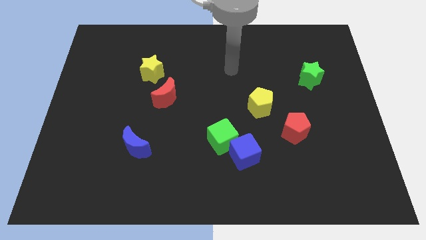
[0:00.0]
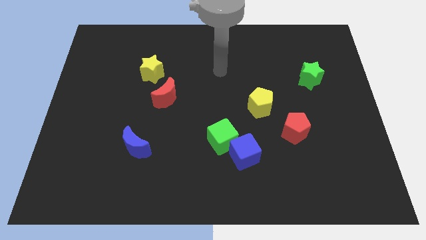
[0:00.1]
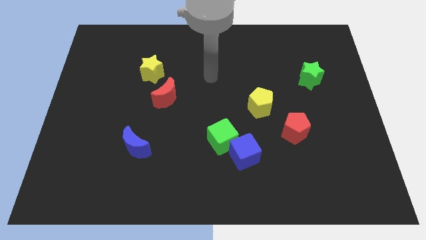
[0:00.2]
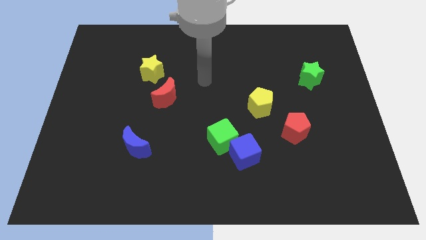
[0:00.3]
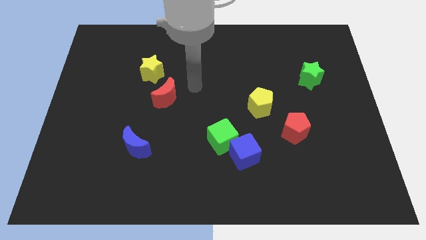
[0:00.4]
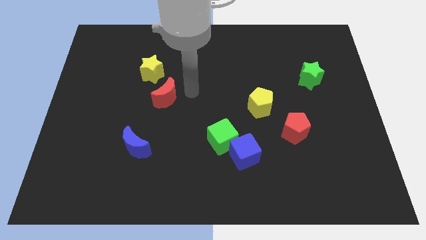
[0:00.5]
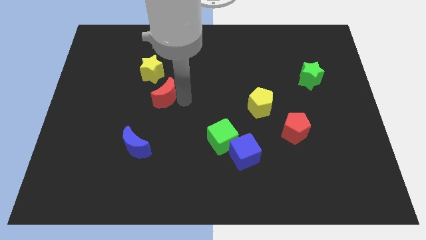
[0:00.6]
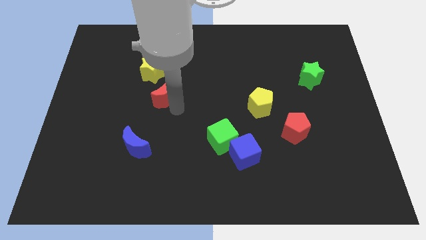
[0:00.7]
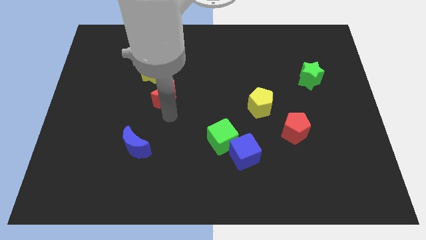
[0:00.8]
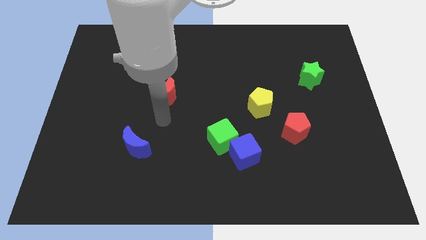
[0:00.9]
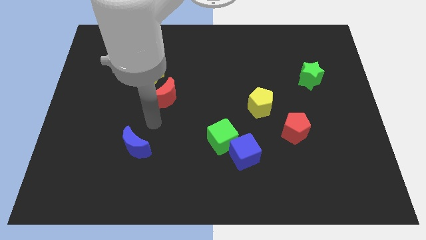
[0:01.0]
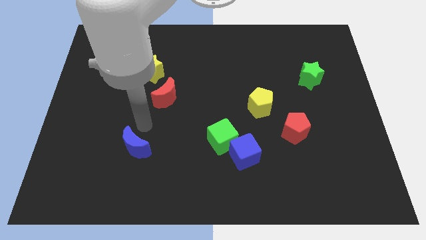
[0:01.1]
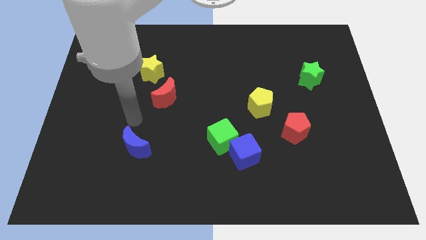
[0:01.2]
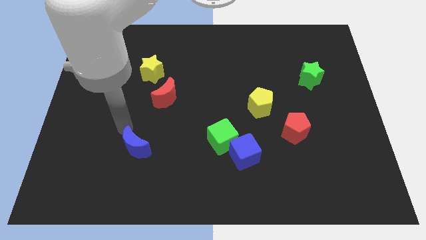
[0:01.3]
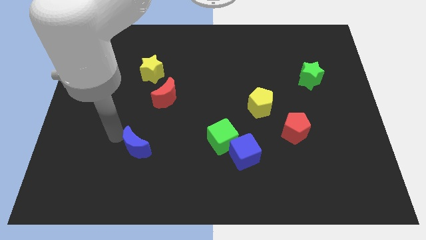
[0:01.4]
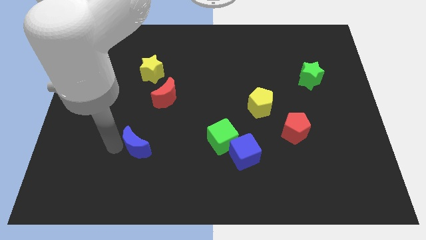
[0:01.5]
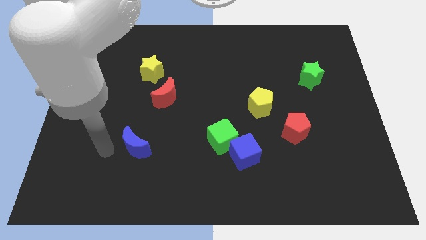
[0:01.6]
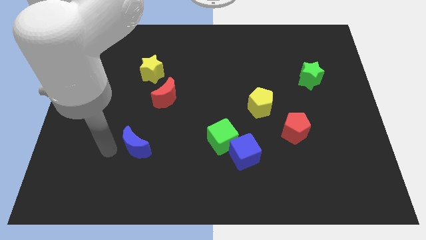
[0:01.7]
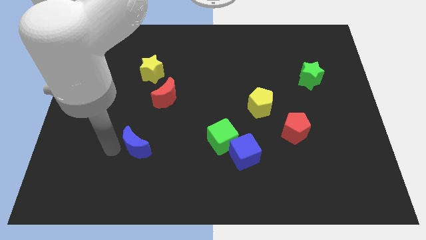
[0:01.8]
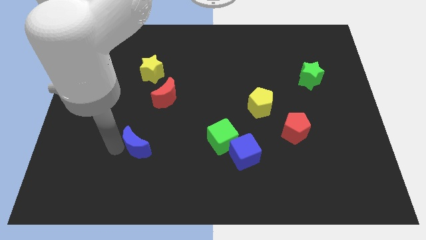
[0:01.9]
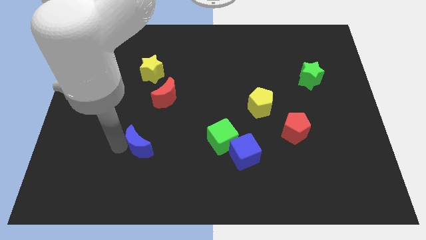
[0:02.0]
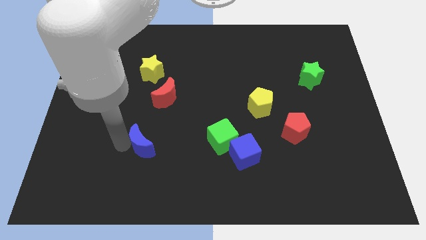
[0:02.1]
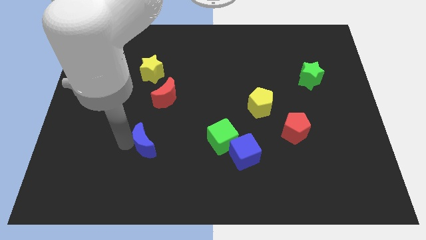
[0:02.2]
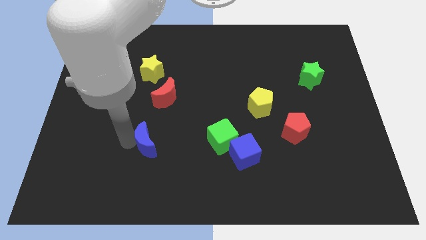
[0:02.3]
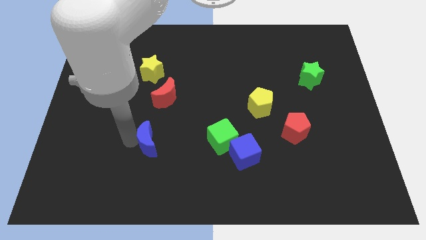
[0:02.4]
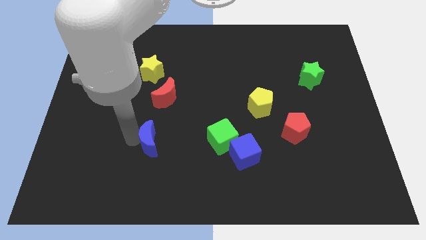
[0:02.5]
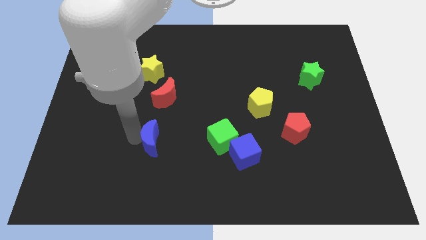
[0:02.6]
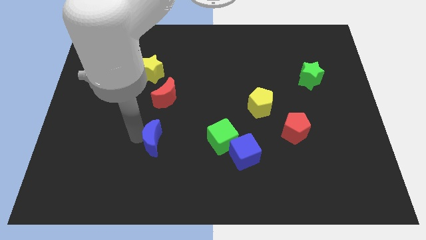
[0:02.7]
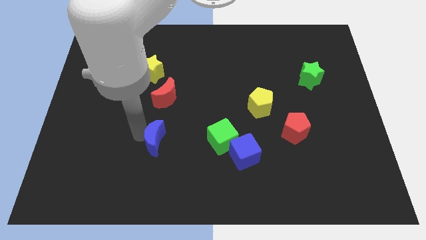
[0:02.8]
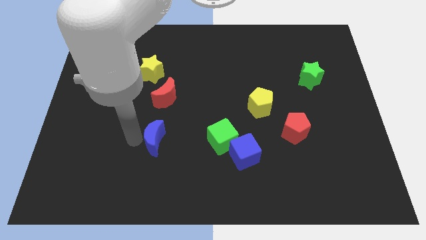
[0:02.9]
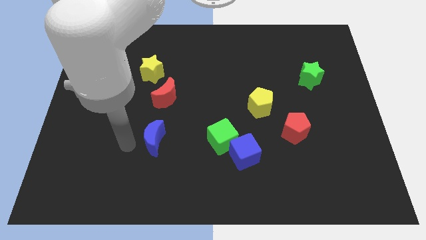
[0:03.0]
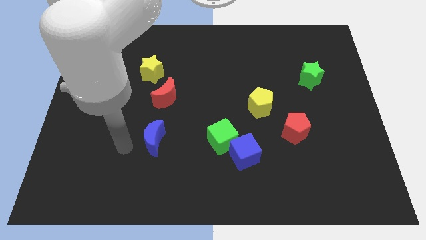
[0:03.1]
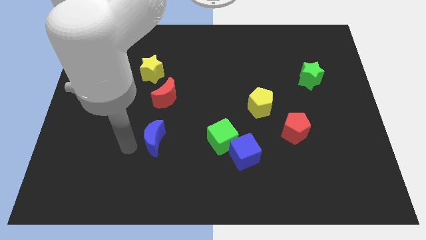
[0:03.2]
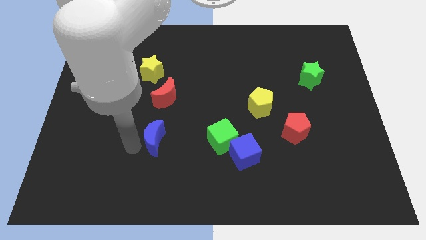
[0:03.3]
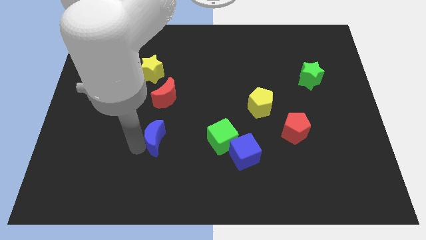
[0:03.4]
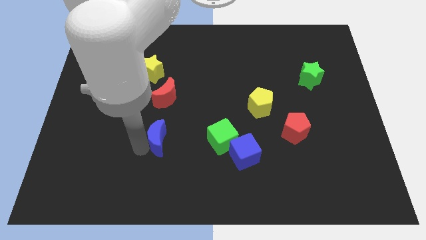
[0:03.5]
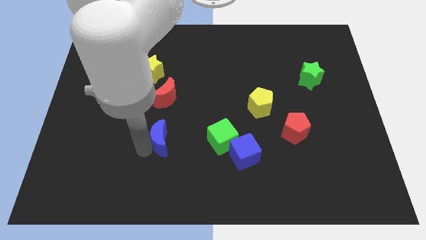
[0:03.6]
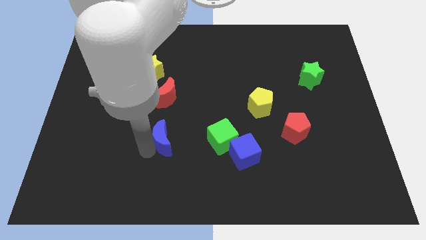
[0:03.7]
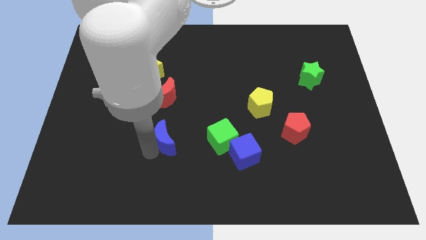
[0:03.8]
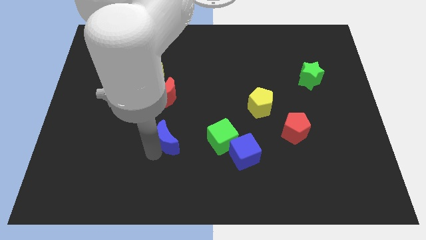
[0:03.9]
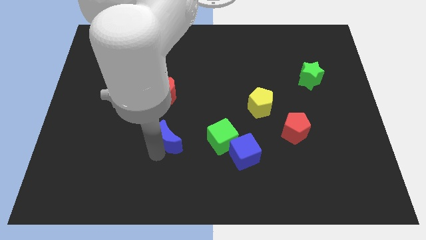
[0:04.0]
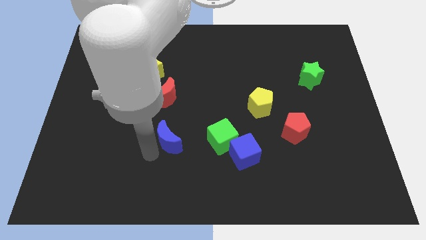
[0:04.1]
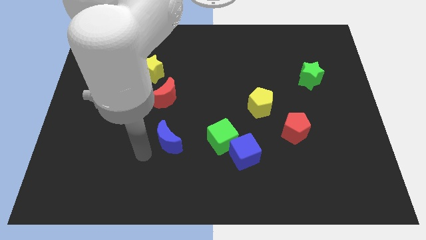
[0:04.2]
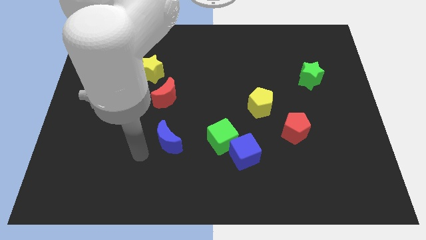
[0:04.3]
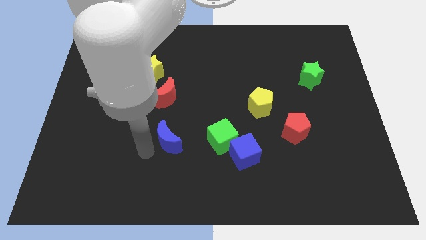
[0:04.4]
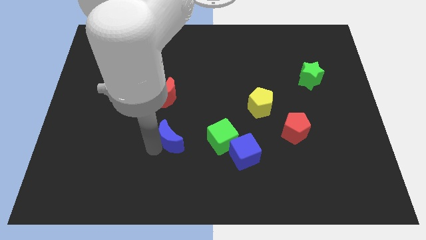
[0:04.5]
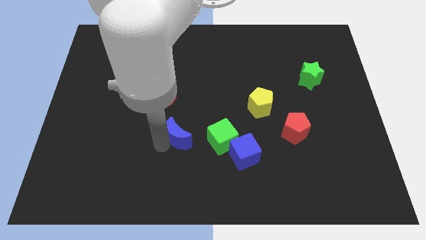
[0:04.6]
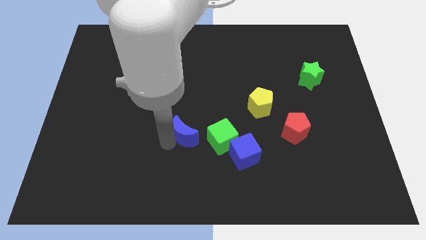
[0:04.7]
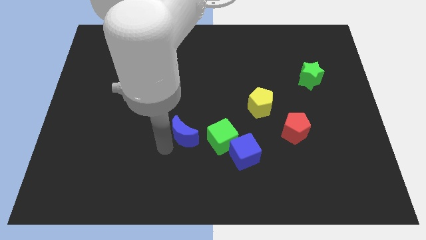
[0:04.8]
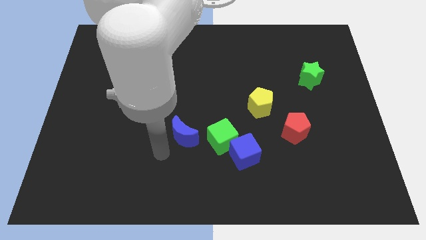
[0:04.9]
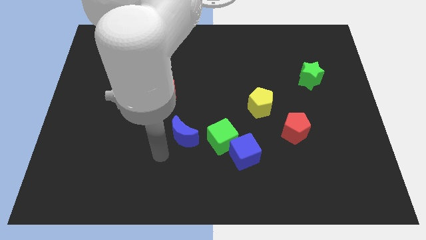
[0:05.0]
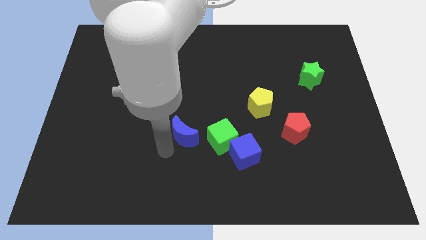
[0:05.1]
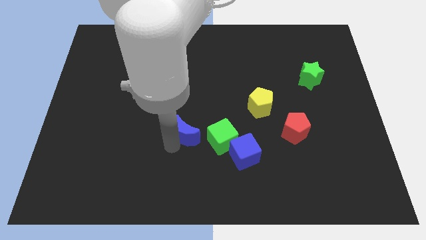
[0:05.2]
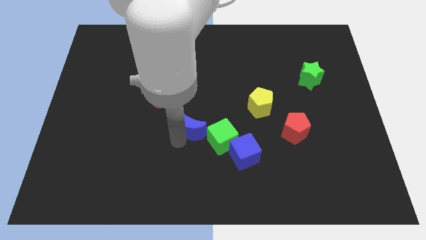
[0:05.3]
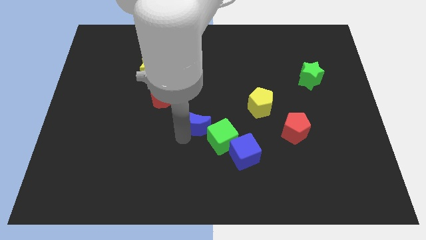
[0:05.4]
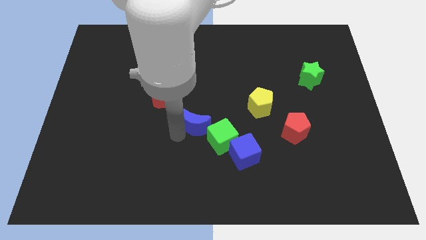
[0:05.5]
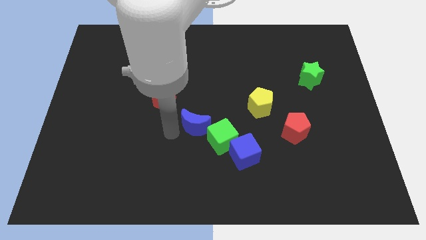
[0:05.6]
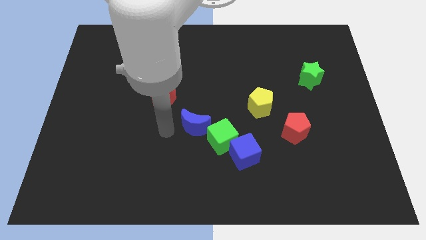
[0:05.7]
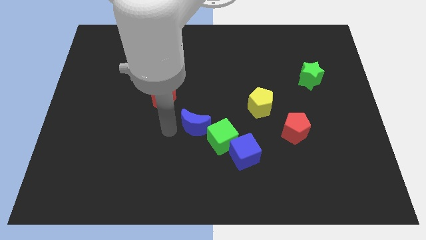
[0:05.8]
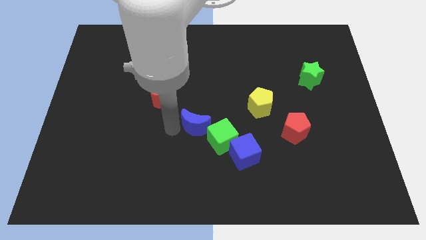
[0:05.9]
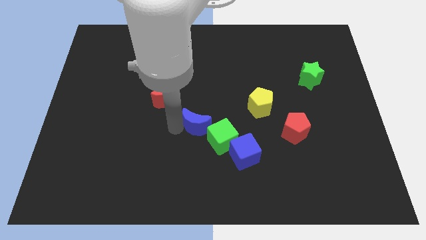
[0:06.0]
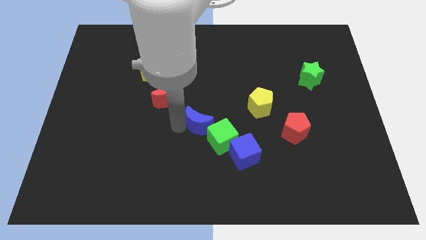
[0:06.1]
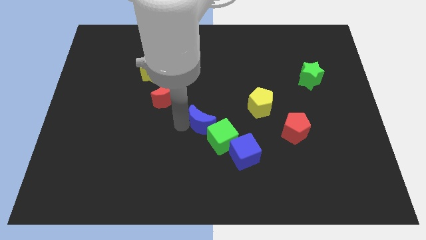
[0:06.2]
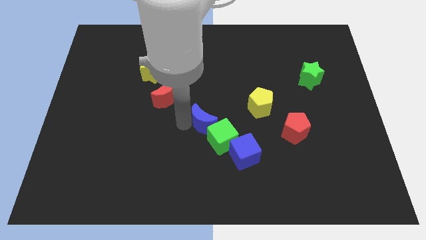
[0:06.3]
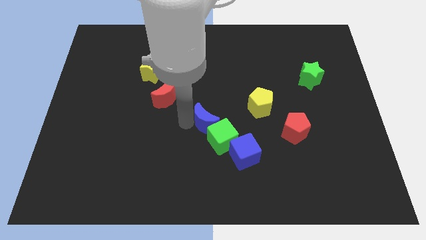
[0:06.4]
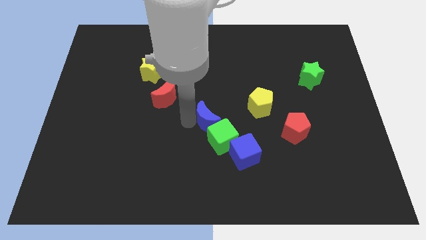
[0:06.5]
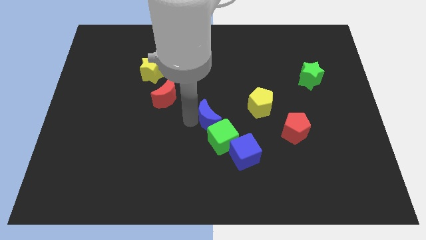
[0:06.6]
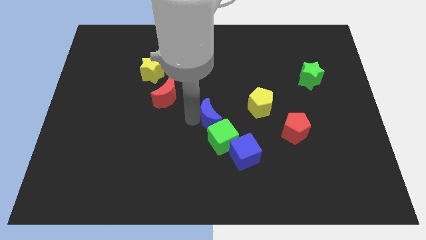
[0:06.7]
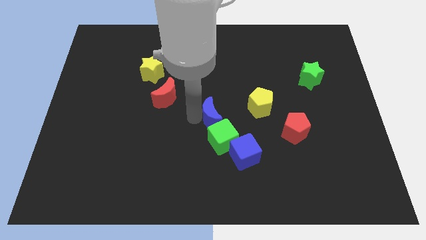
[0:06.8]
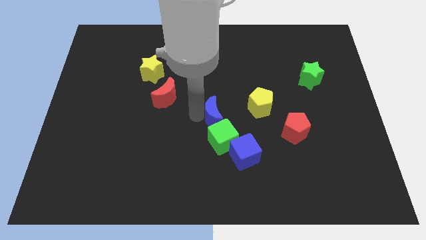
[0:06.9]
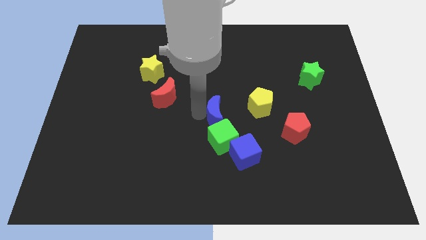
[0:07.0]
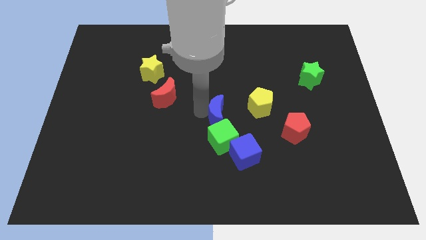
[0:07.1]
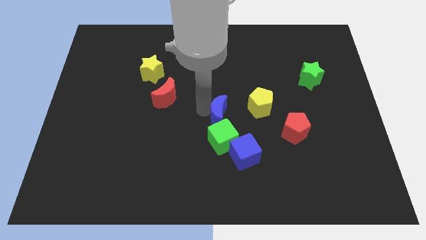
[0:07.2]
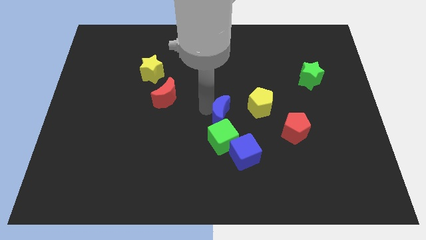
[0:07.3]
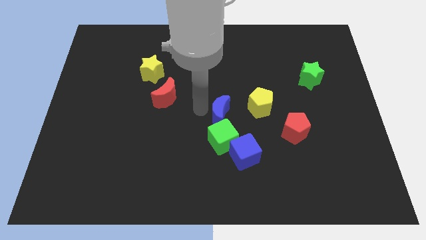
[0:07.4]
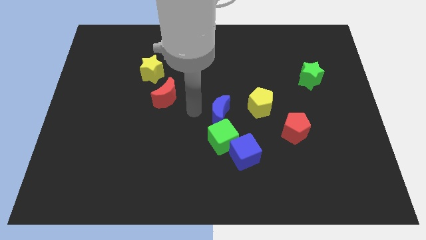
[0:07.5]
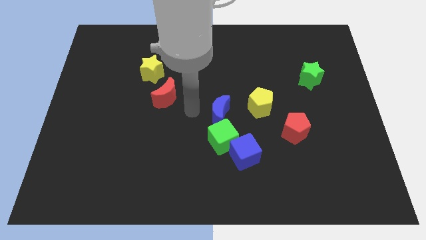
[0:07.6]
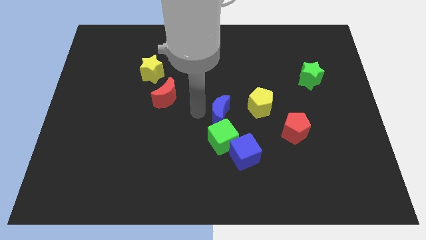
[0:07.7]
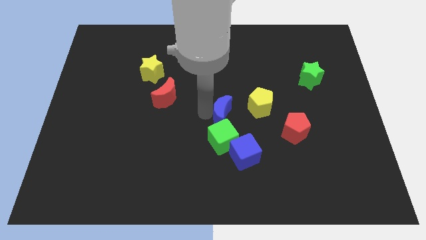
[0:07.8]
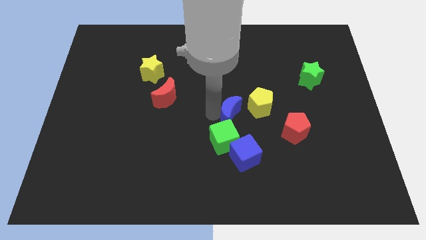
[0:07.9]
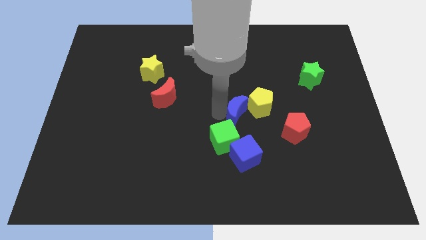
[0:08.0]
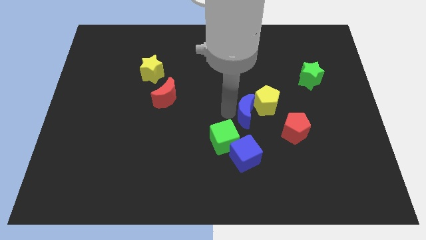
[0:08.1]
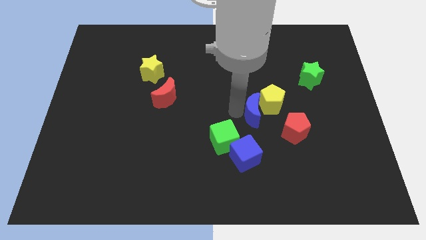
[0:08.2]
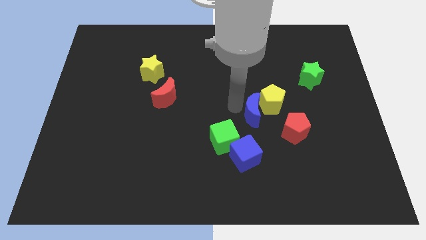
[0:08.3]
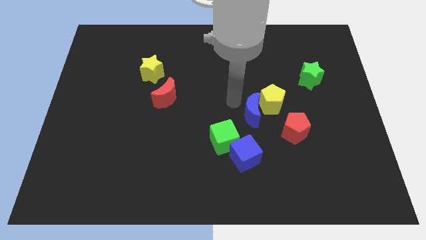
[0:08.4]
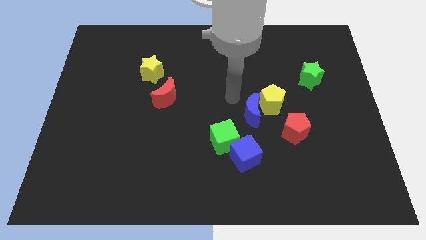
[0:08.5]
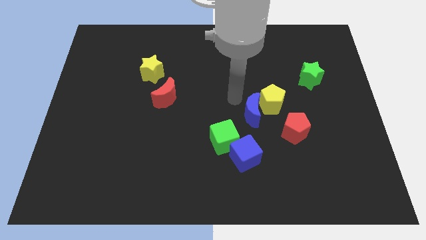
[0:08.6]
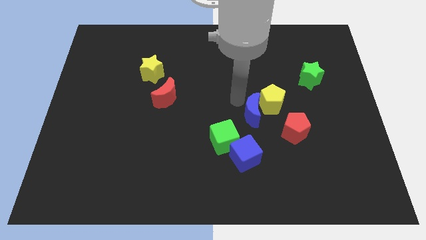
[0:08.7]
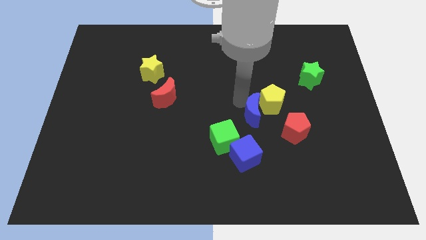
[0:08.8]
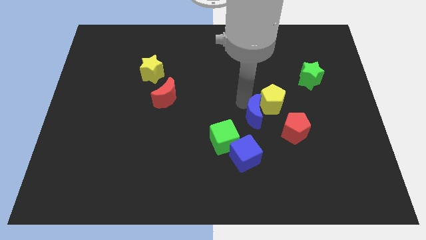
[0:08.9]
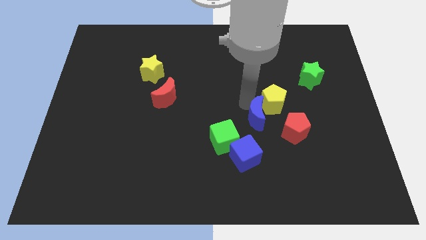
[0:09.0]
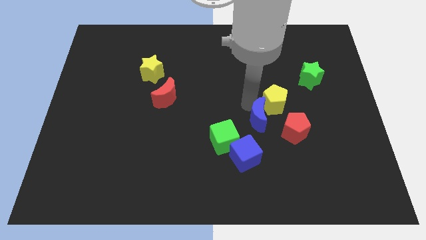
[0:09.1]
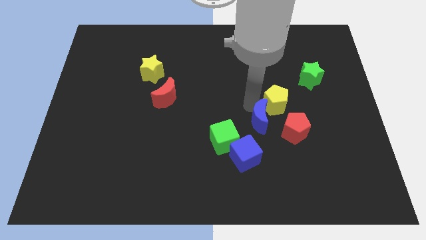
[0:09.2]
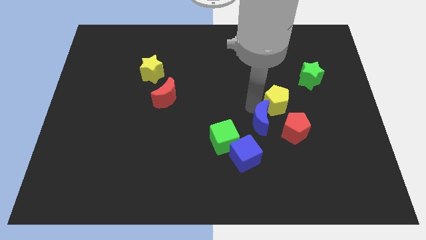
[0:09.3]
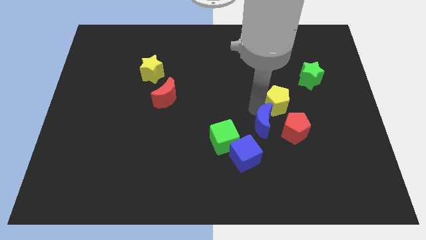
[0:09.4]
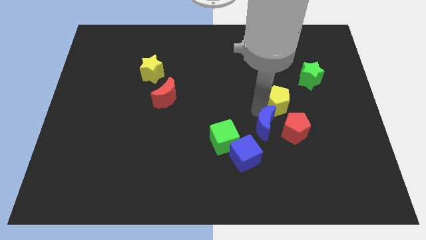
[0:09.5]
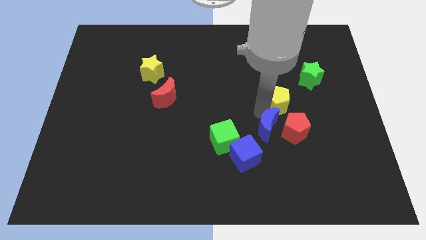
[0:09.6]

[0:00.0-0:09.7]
slide the blue moon towards the red pentagon
